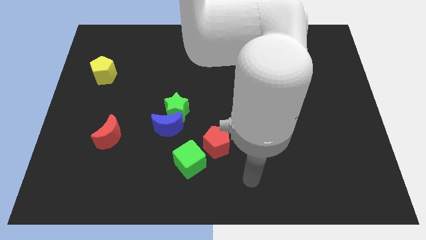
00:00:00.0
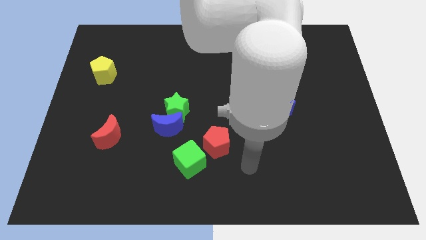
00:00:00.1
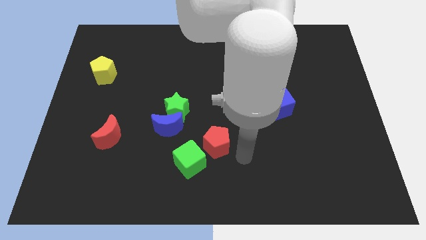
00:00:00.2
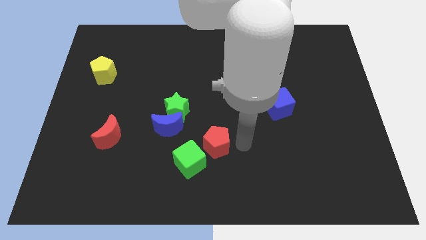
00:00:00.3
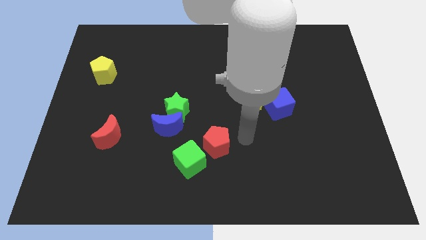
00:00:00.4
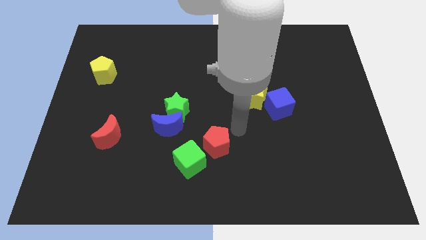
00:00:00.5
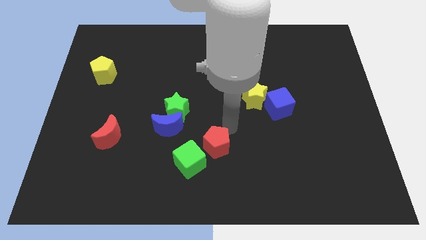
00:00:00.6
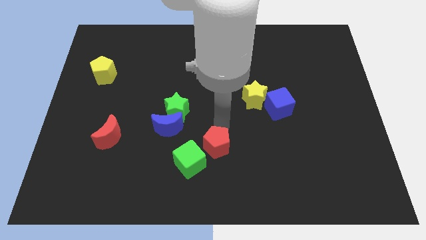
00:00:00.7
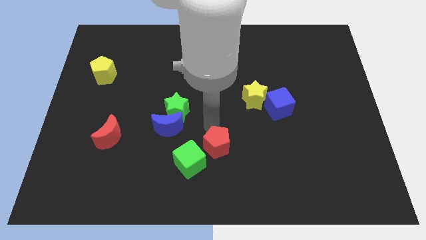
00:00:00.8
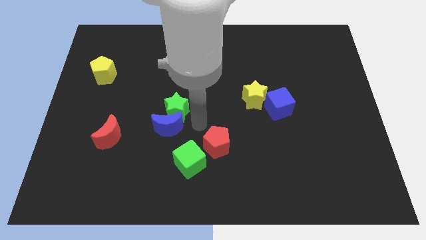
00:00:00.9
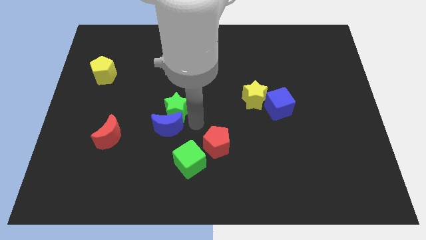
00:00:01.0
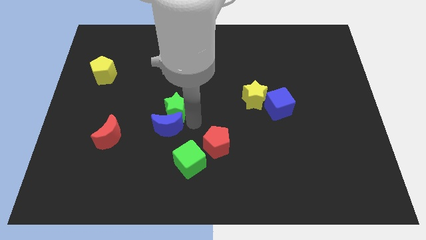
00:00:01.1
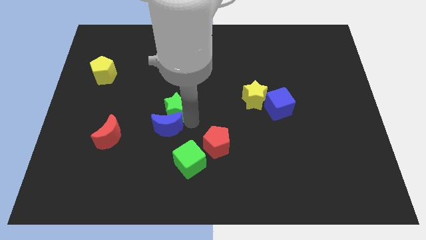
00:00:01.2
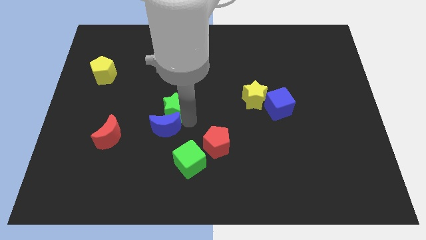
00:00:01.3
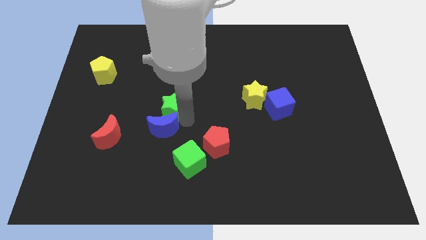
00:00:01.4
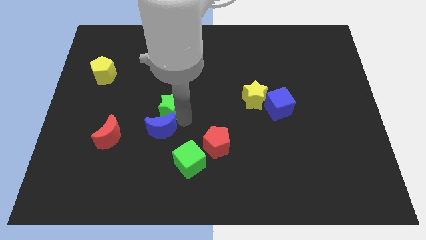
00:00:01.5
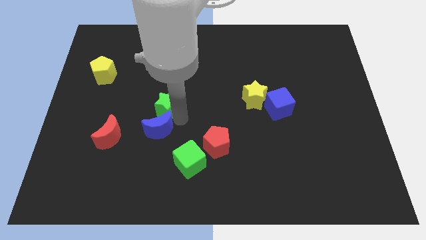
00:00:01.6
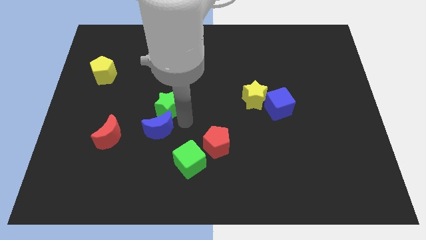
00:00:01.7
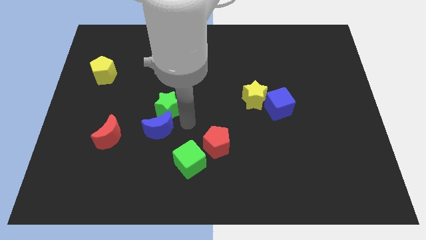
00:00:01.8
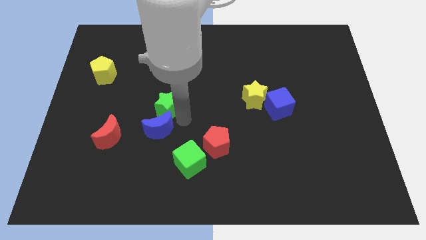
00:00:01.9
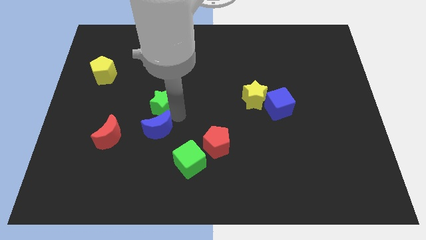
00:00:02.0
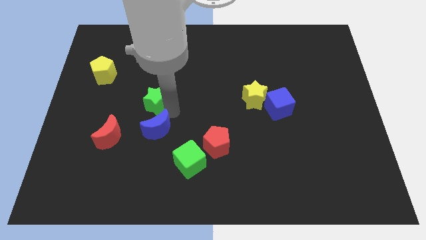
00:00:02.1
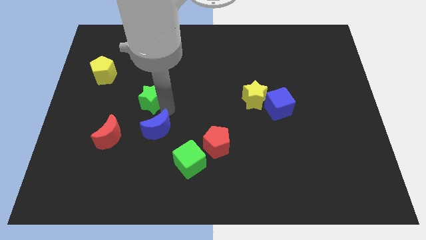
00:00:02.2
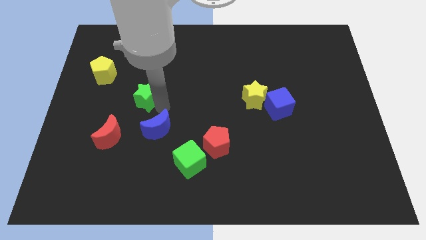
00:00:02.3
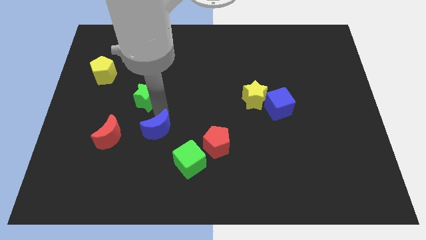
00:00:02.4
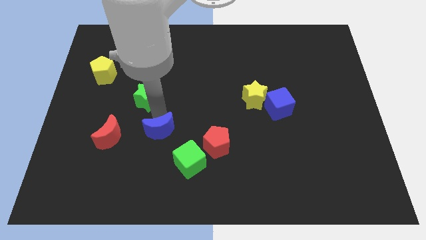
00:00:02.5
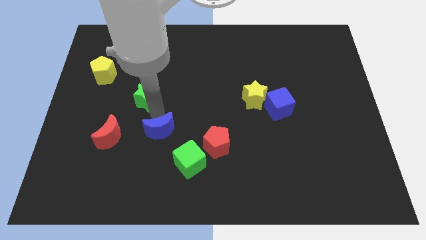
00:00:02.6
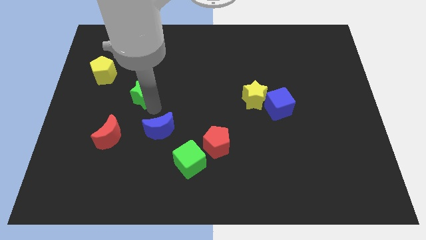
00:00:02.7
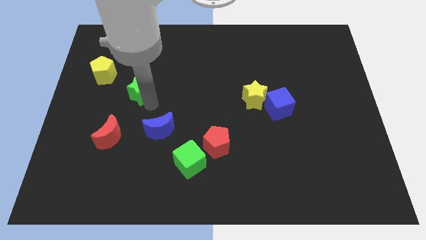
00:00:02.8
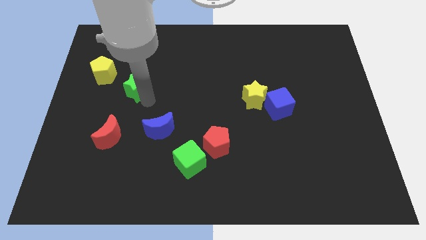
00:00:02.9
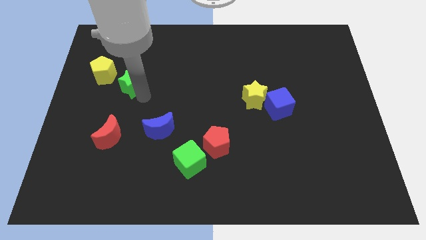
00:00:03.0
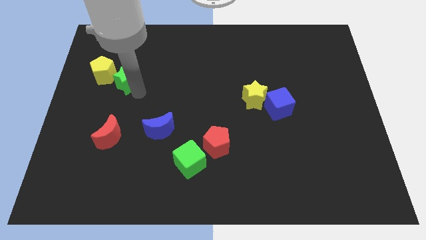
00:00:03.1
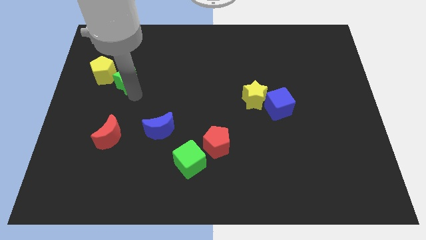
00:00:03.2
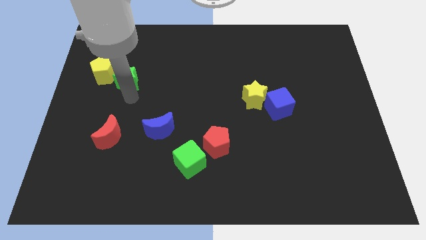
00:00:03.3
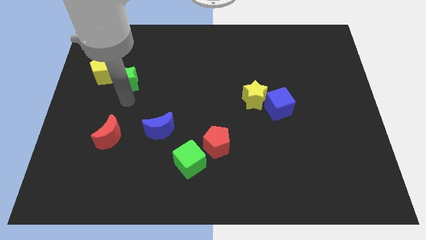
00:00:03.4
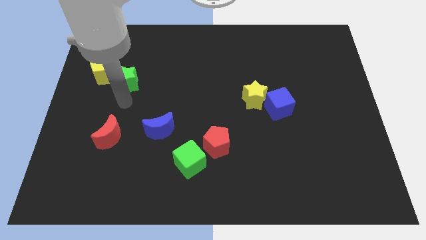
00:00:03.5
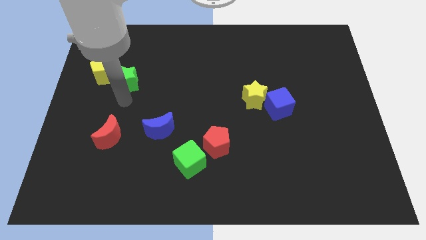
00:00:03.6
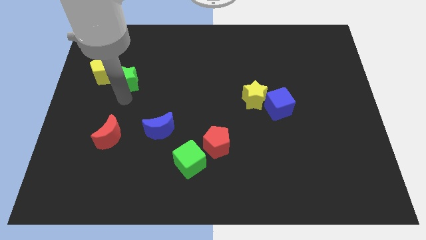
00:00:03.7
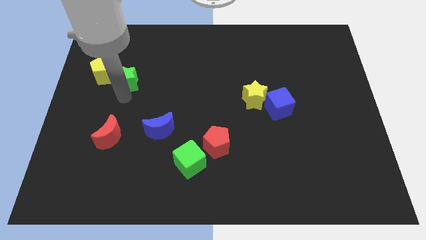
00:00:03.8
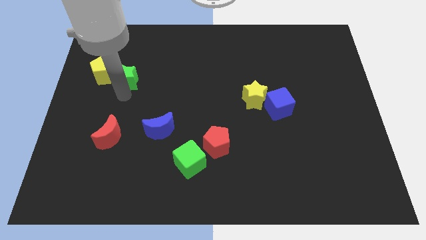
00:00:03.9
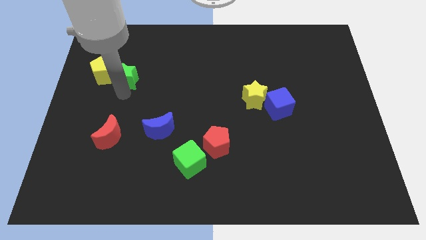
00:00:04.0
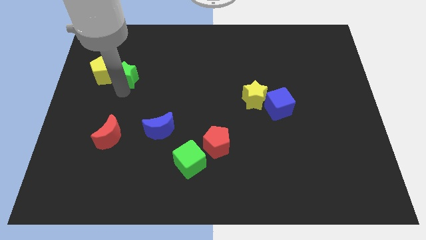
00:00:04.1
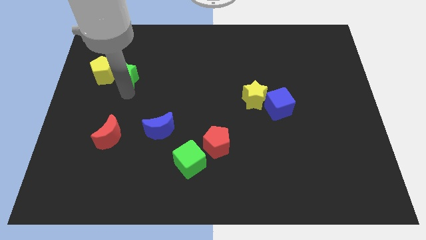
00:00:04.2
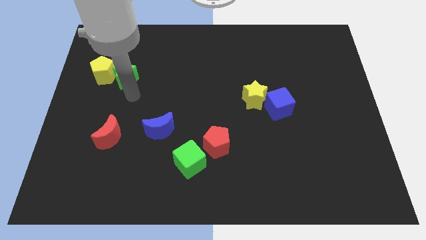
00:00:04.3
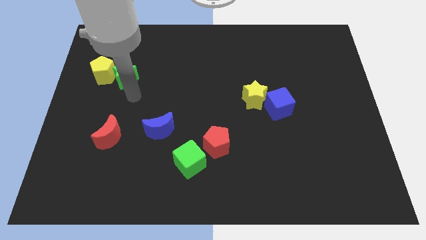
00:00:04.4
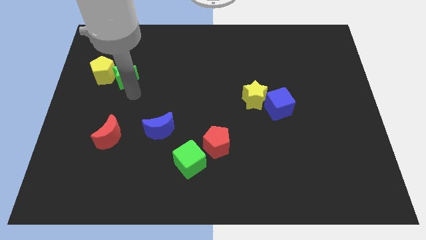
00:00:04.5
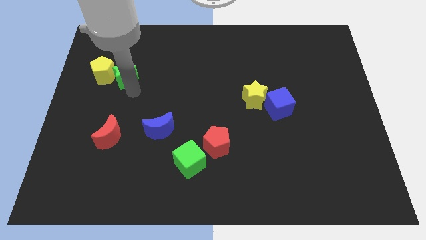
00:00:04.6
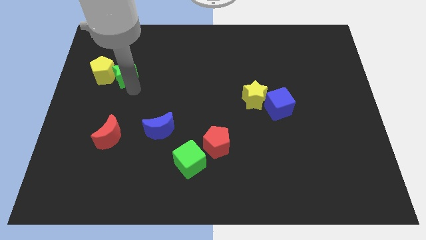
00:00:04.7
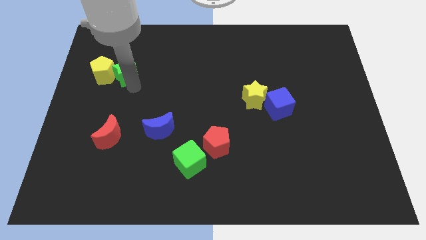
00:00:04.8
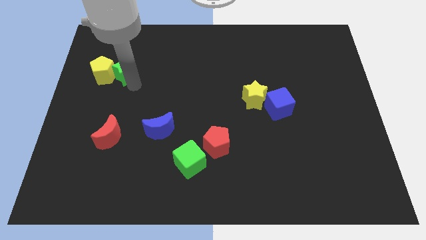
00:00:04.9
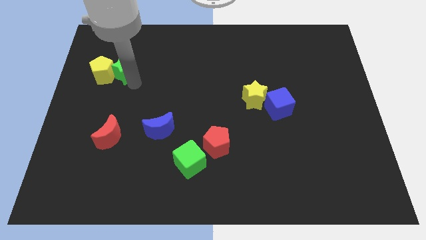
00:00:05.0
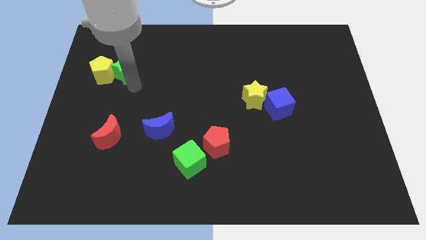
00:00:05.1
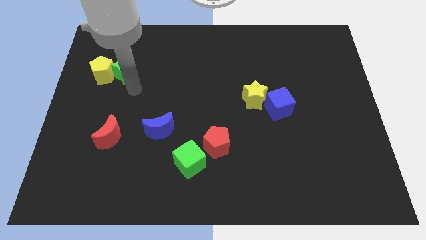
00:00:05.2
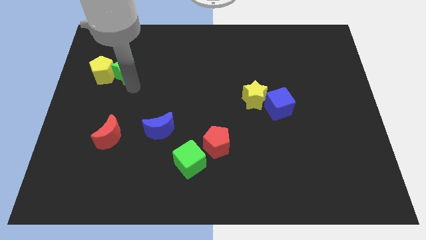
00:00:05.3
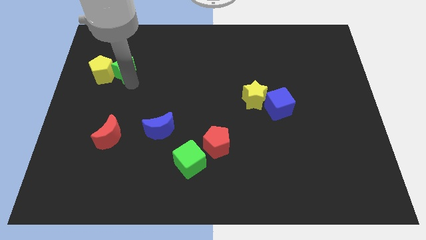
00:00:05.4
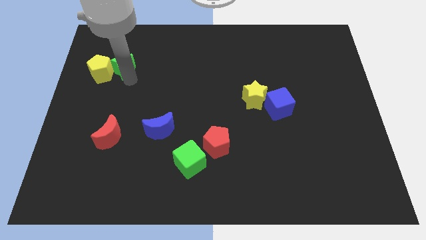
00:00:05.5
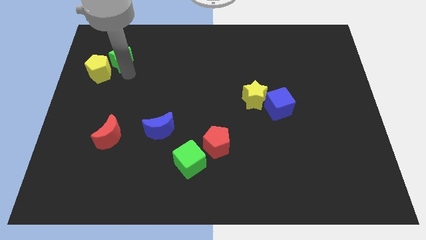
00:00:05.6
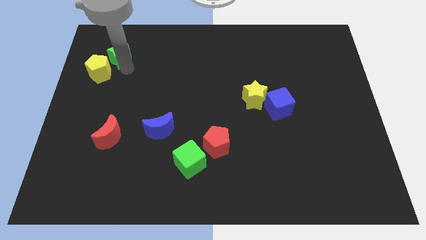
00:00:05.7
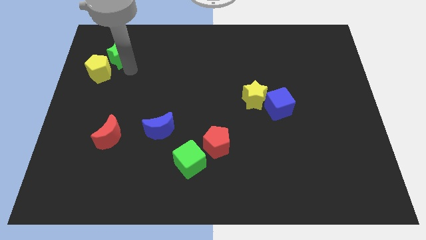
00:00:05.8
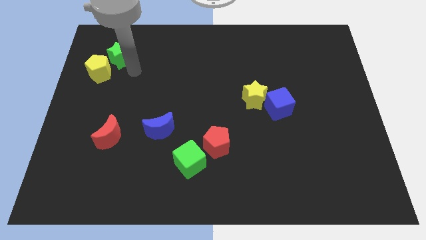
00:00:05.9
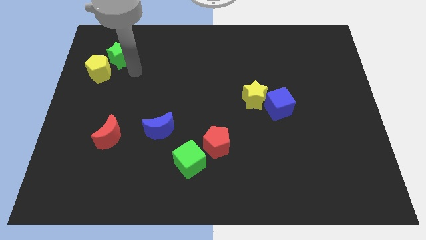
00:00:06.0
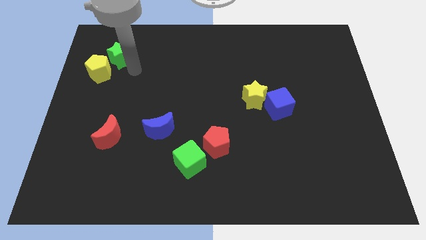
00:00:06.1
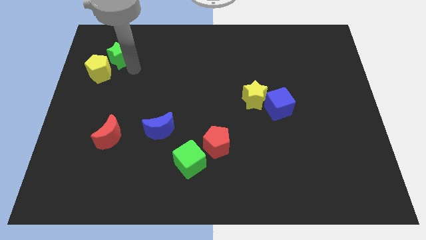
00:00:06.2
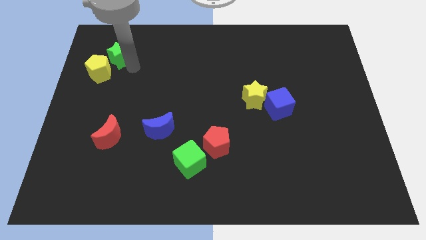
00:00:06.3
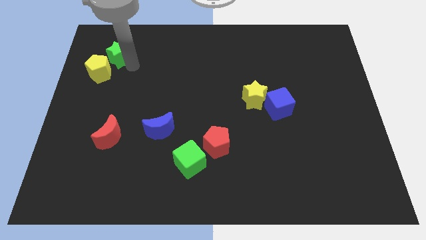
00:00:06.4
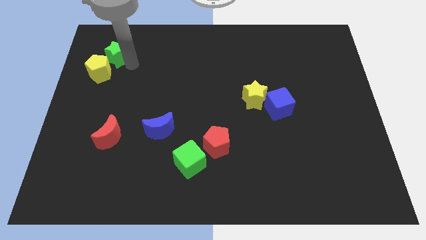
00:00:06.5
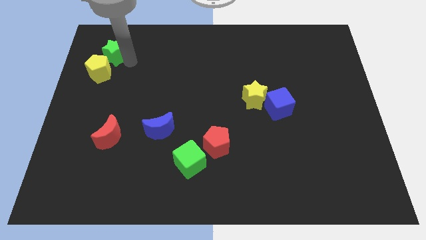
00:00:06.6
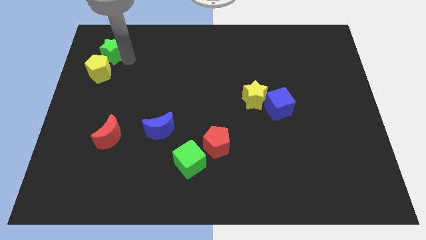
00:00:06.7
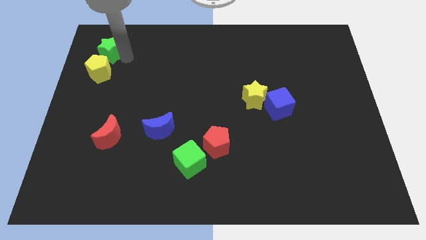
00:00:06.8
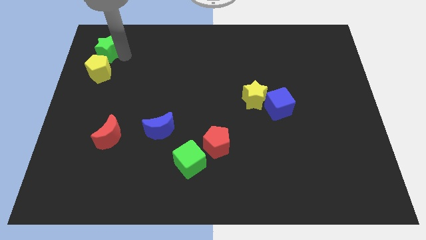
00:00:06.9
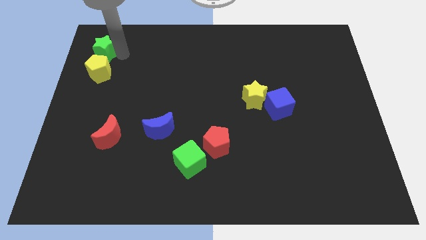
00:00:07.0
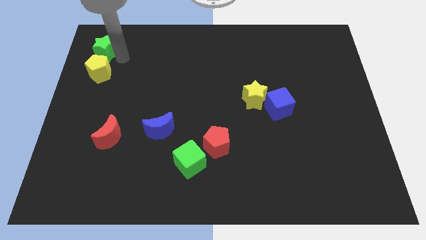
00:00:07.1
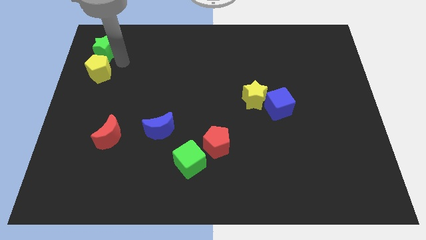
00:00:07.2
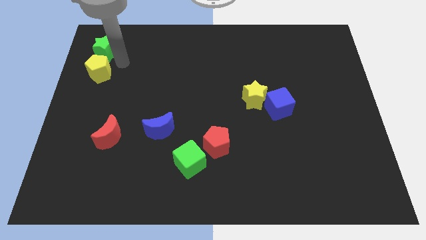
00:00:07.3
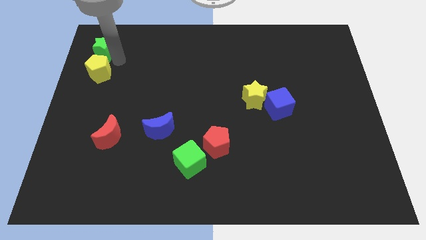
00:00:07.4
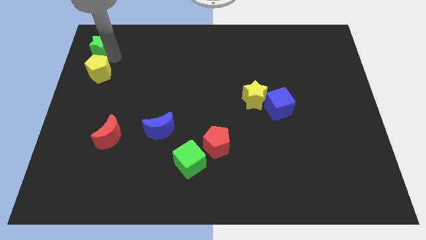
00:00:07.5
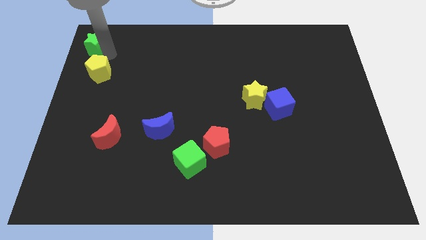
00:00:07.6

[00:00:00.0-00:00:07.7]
slide the green star to the top left of the board
